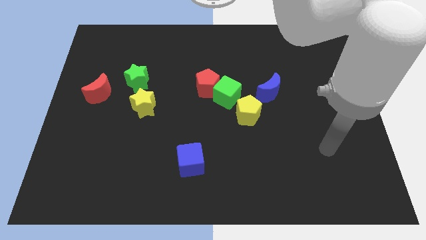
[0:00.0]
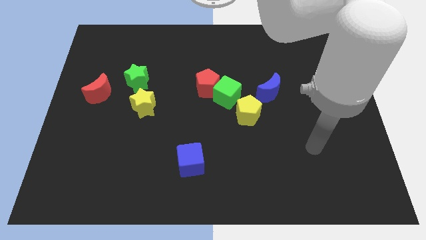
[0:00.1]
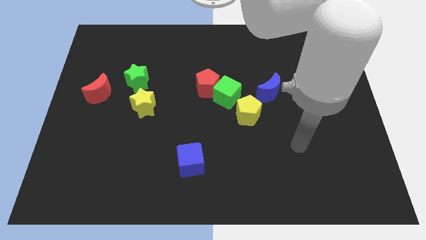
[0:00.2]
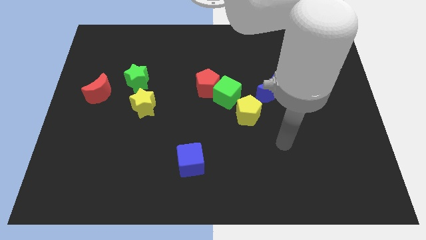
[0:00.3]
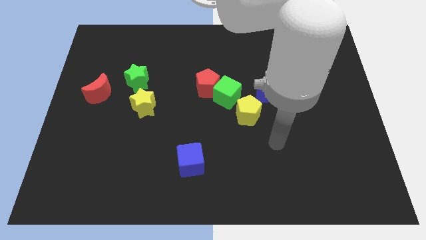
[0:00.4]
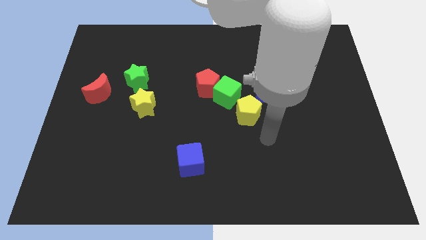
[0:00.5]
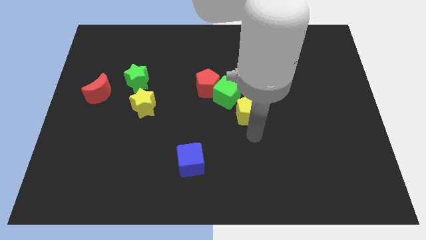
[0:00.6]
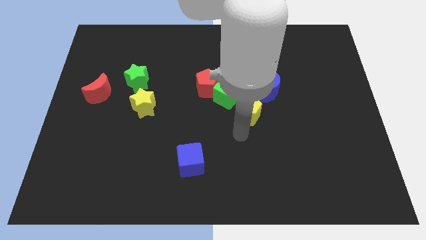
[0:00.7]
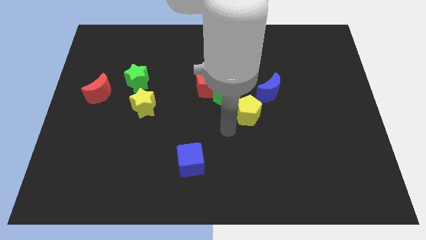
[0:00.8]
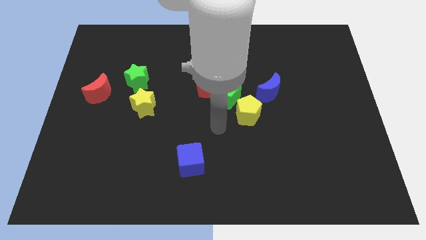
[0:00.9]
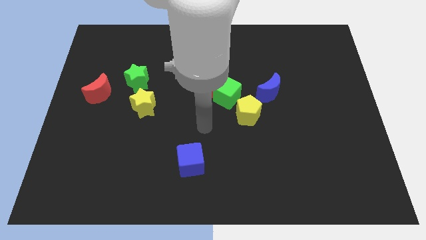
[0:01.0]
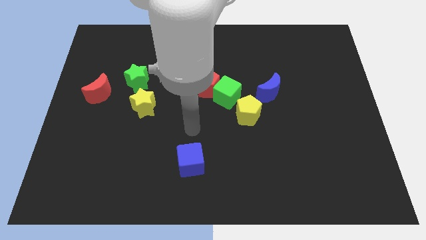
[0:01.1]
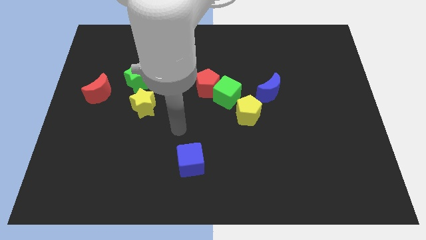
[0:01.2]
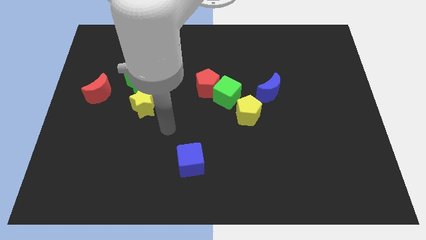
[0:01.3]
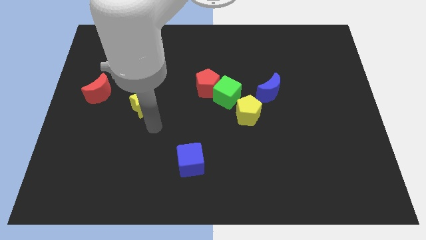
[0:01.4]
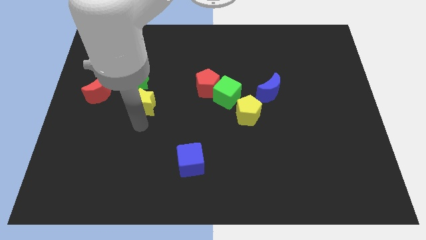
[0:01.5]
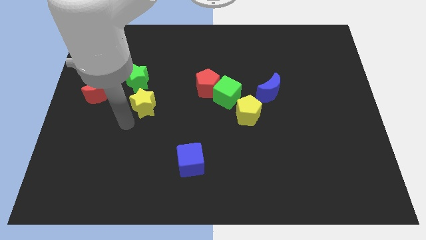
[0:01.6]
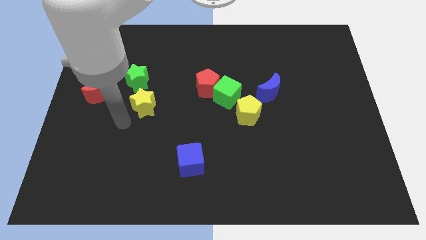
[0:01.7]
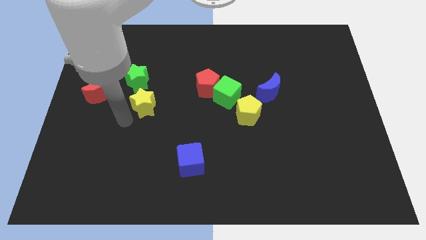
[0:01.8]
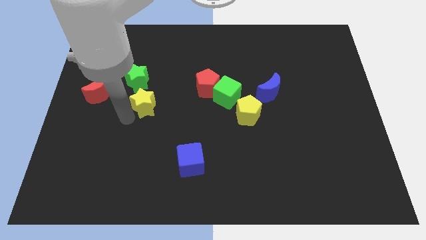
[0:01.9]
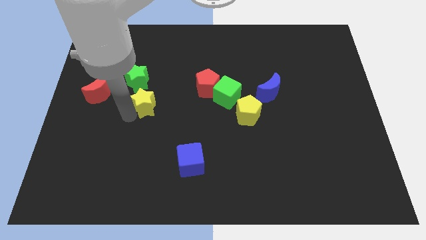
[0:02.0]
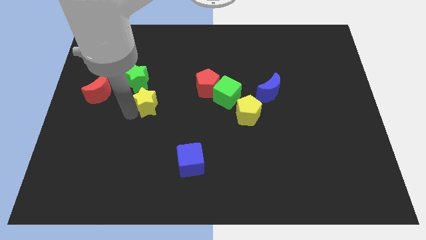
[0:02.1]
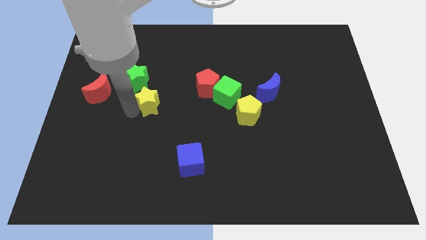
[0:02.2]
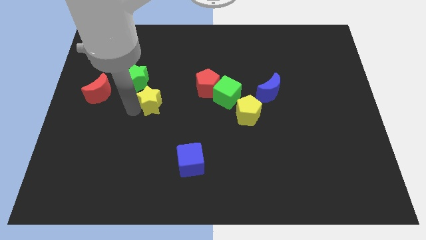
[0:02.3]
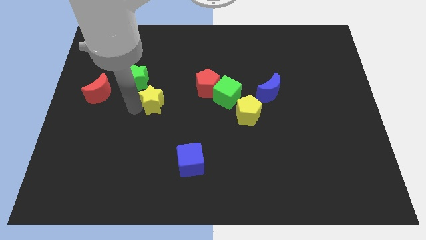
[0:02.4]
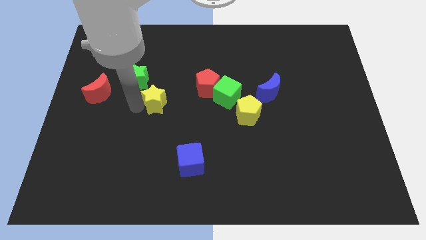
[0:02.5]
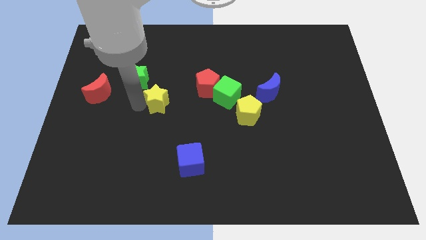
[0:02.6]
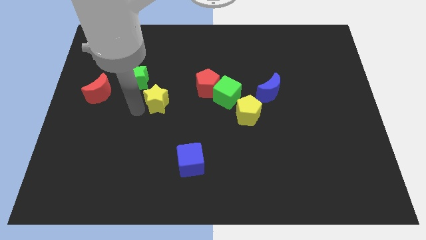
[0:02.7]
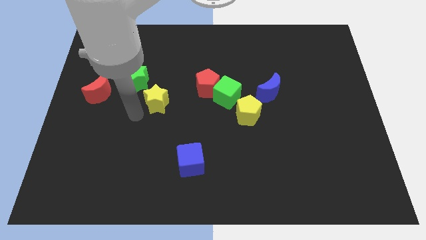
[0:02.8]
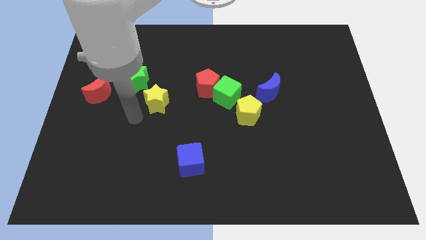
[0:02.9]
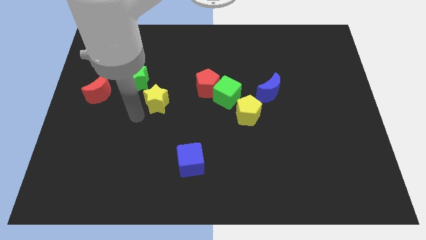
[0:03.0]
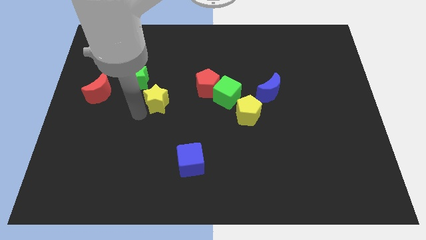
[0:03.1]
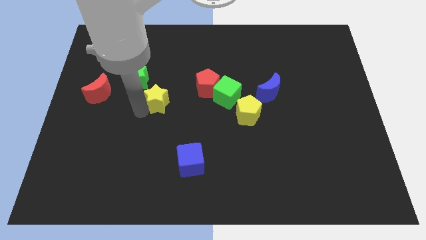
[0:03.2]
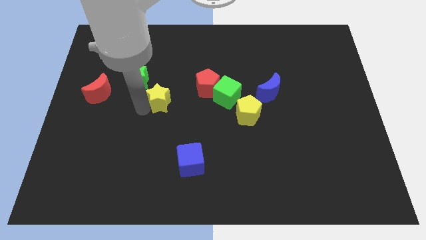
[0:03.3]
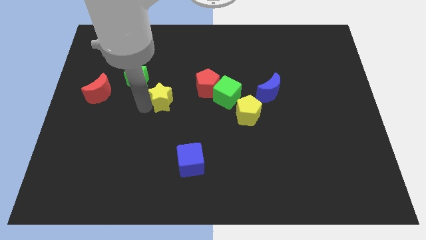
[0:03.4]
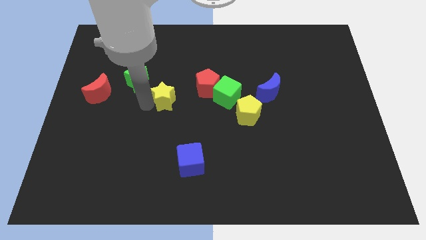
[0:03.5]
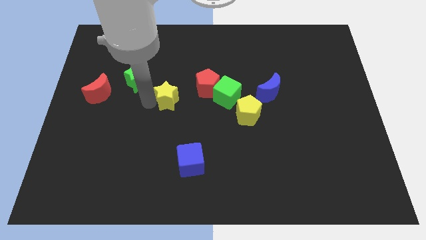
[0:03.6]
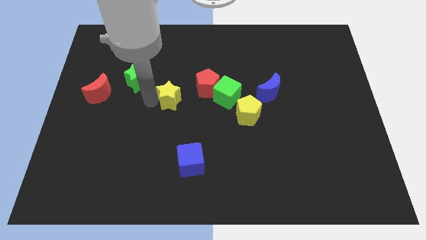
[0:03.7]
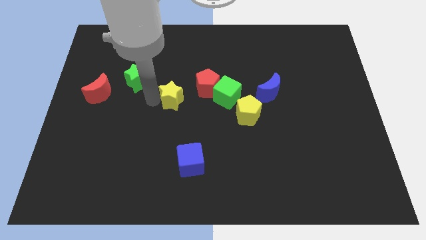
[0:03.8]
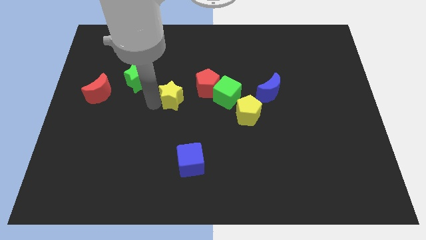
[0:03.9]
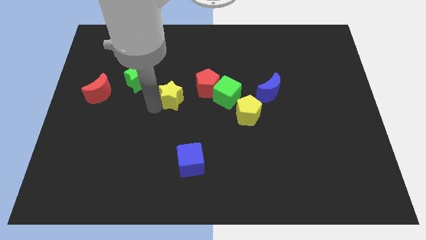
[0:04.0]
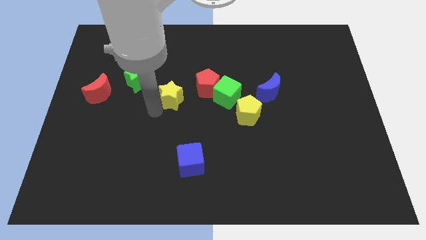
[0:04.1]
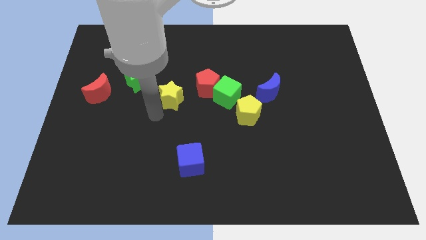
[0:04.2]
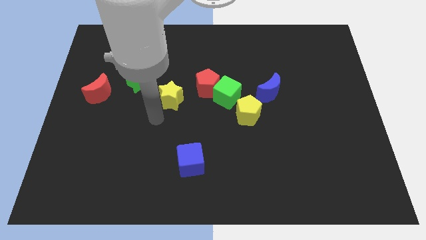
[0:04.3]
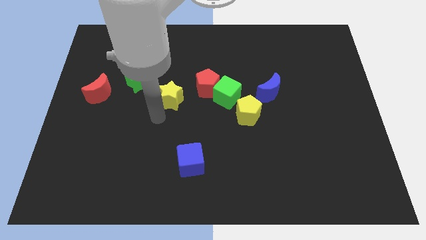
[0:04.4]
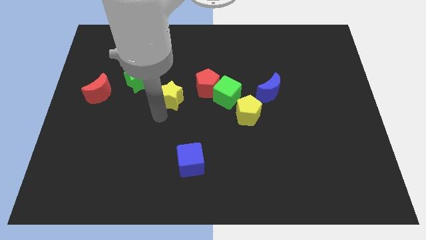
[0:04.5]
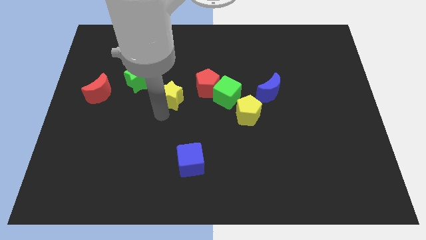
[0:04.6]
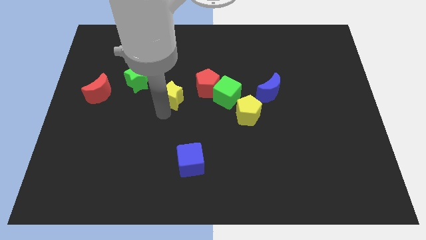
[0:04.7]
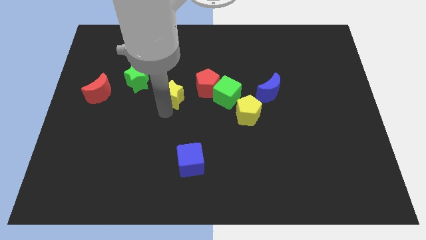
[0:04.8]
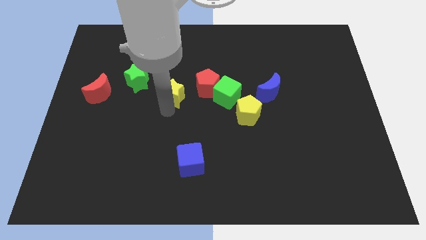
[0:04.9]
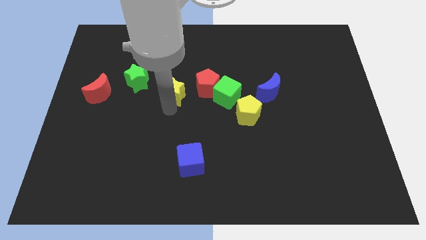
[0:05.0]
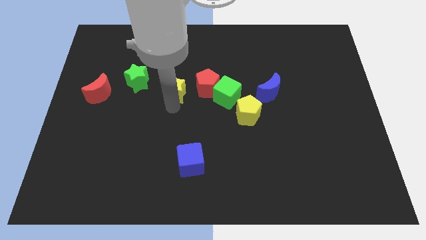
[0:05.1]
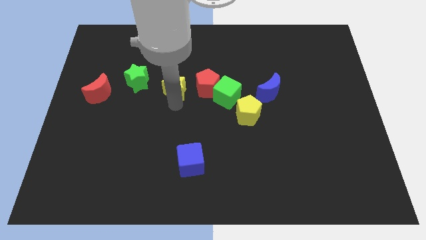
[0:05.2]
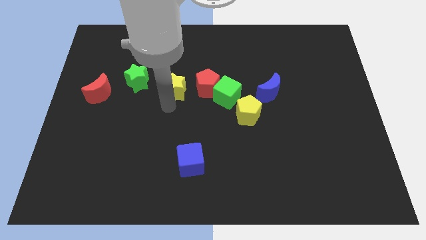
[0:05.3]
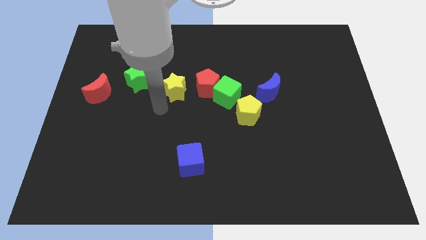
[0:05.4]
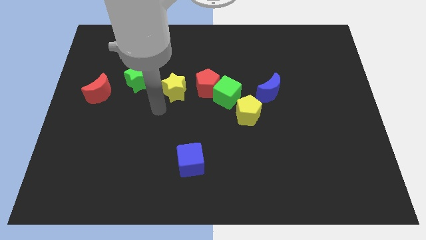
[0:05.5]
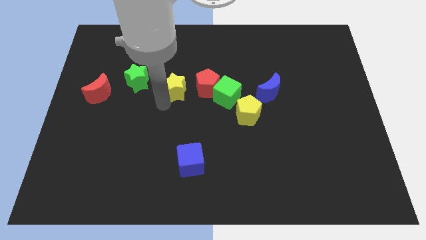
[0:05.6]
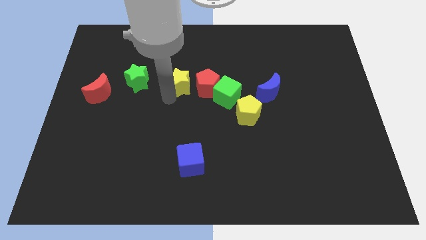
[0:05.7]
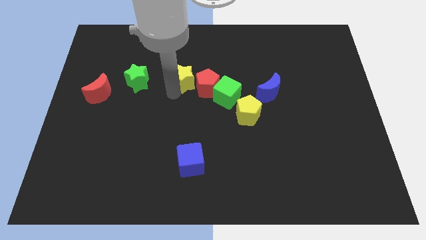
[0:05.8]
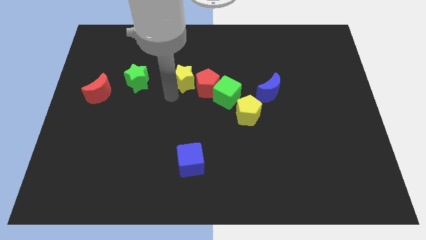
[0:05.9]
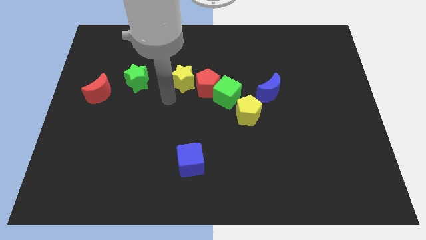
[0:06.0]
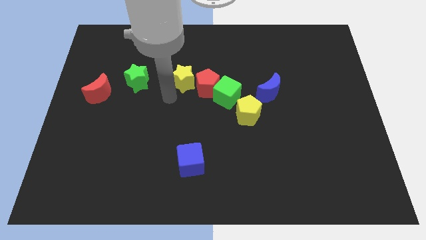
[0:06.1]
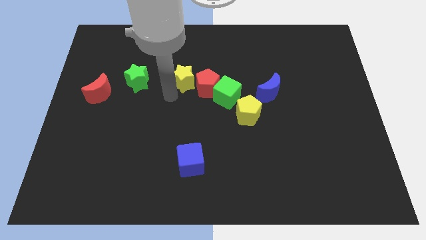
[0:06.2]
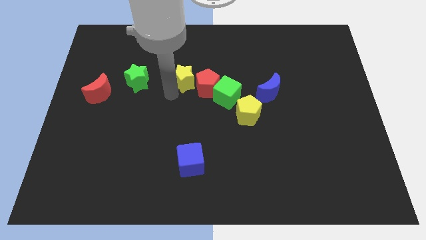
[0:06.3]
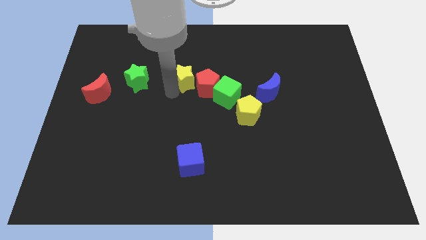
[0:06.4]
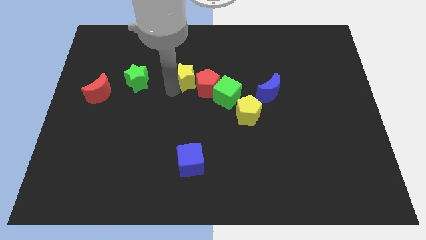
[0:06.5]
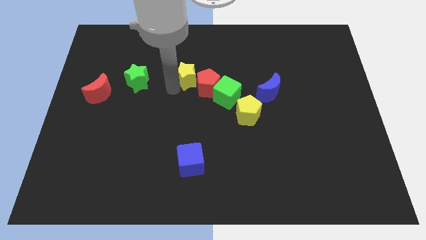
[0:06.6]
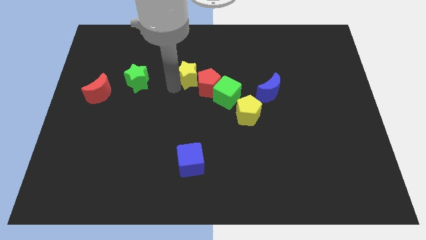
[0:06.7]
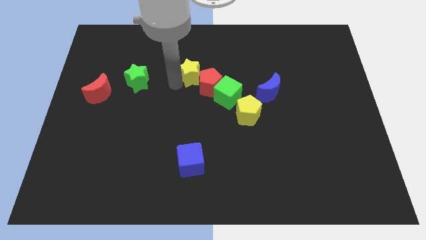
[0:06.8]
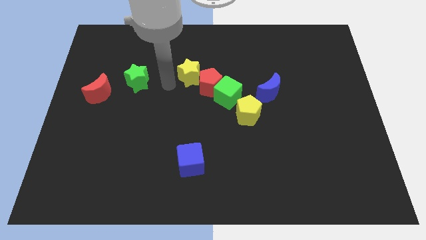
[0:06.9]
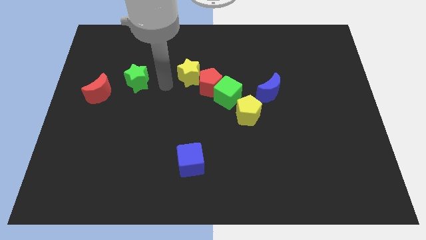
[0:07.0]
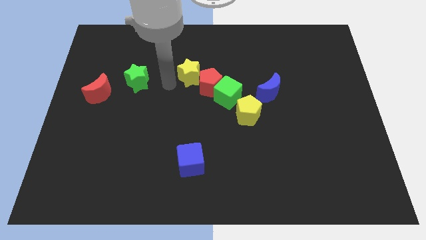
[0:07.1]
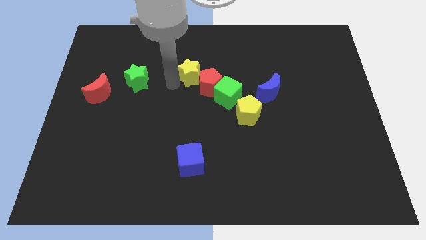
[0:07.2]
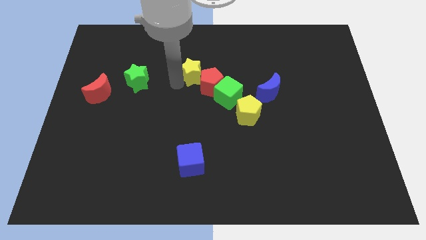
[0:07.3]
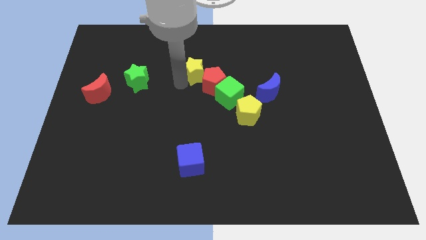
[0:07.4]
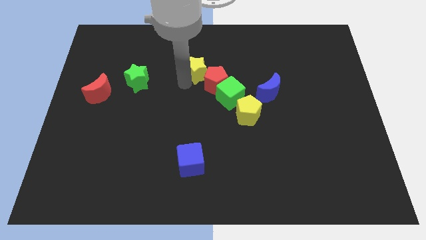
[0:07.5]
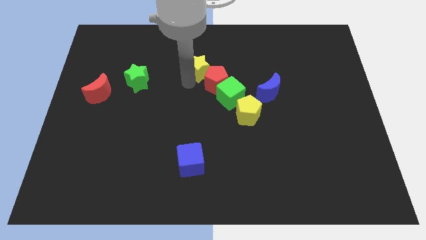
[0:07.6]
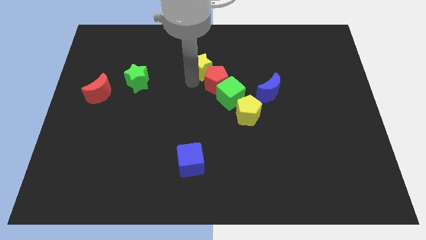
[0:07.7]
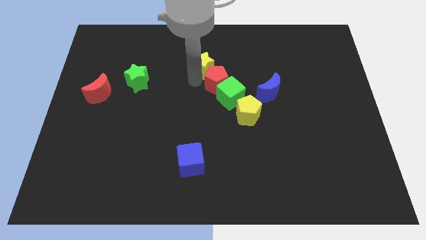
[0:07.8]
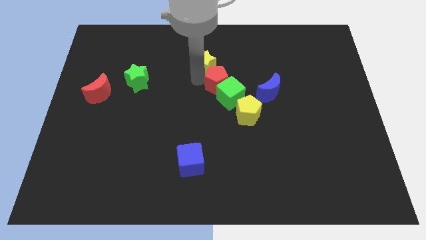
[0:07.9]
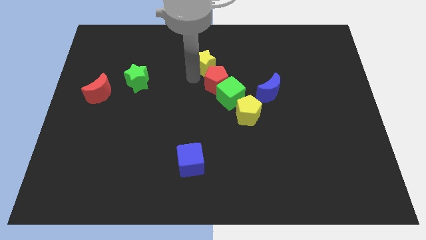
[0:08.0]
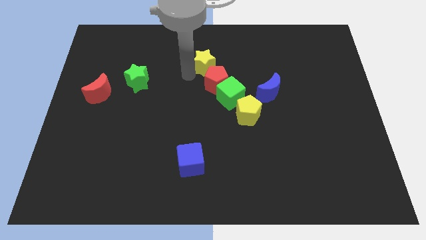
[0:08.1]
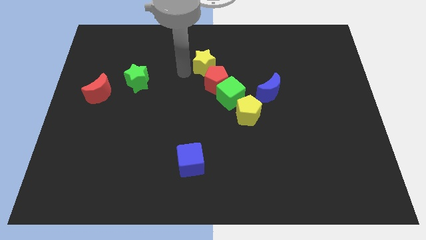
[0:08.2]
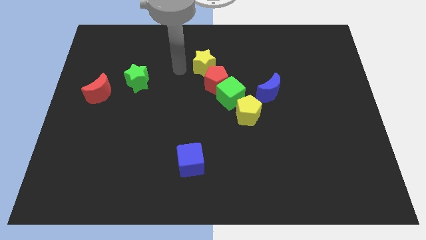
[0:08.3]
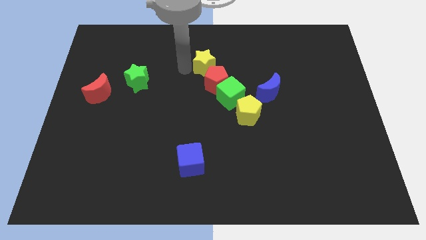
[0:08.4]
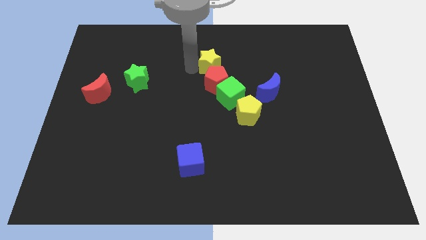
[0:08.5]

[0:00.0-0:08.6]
move the yellow star to the top of the green cube
